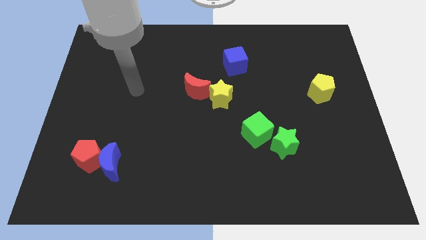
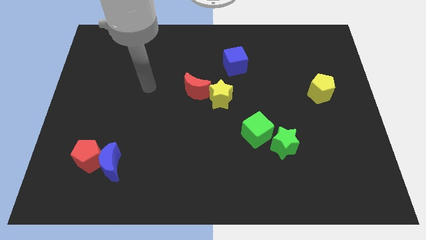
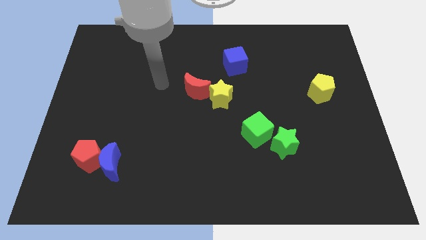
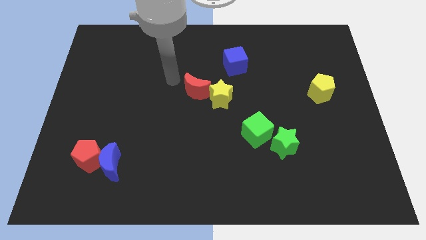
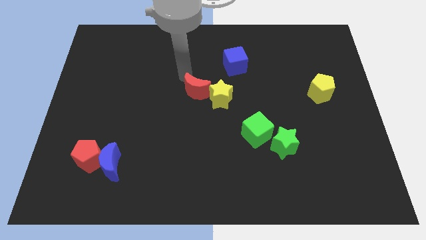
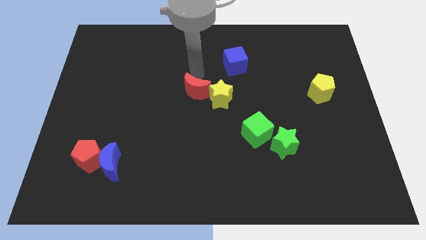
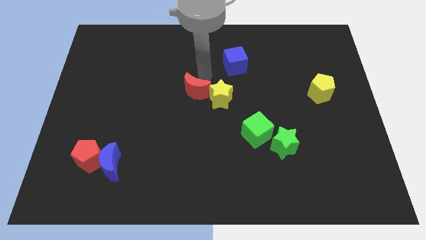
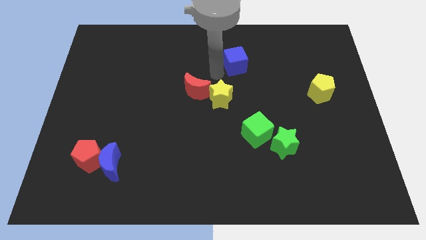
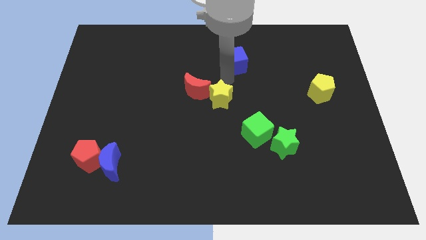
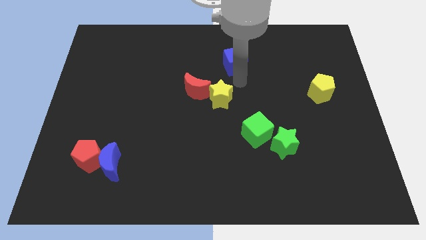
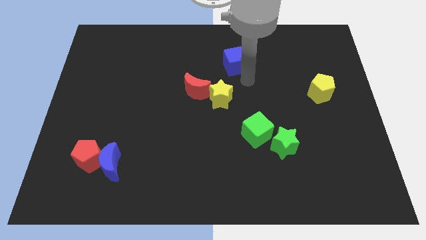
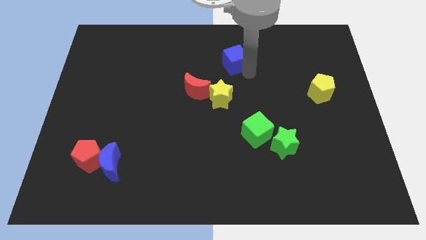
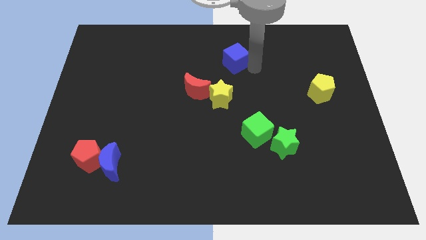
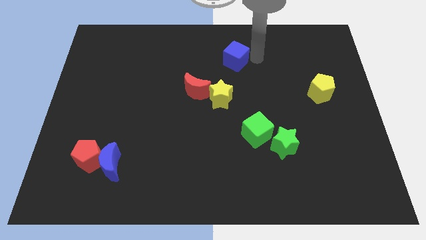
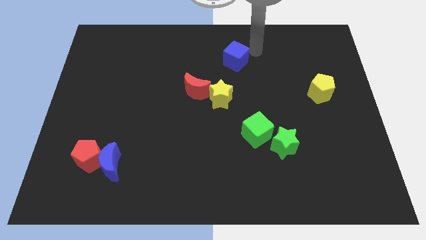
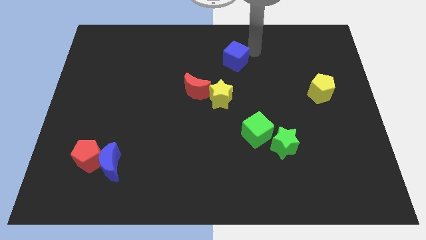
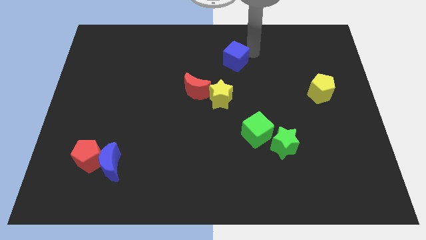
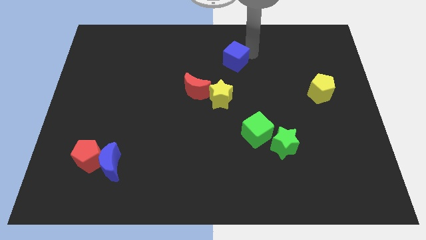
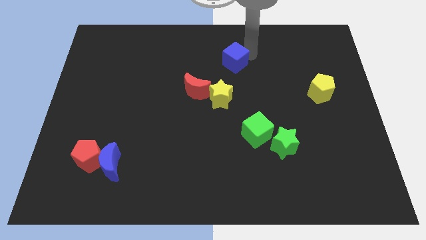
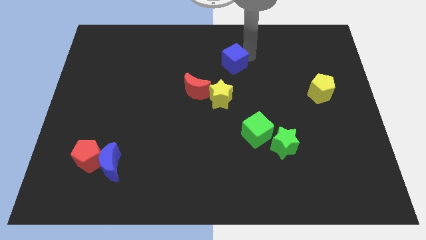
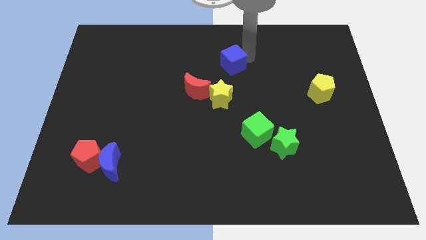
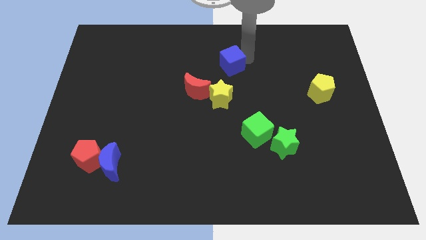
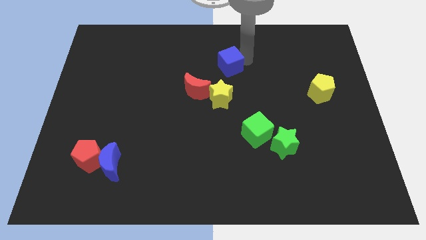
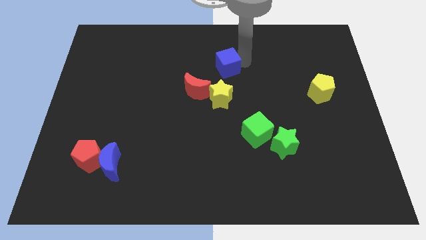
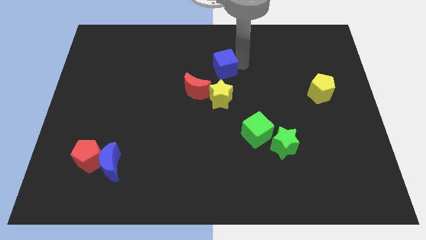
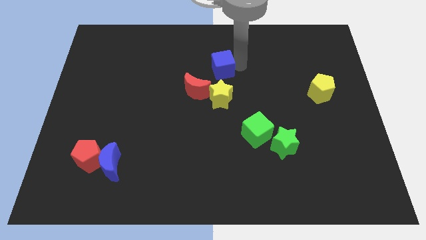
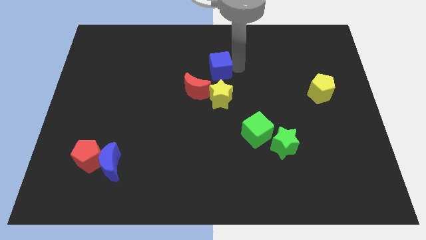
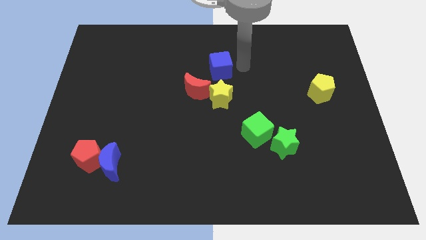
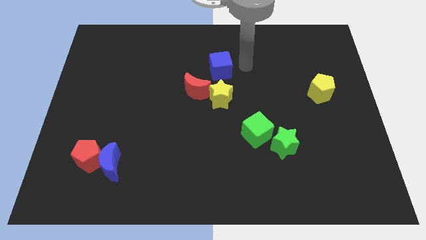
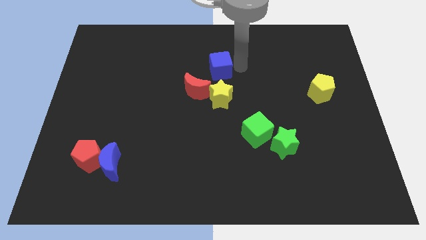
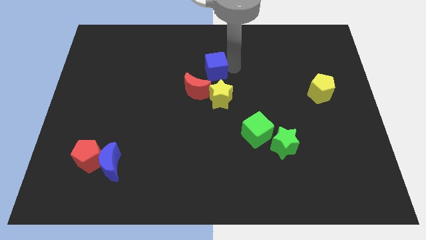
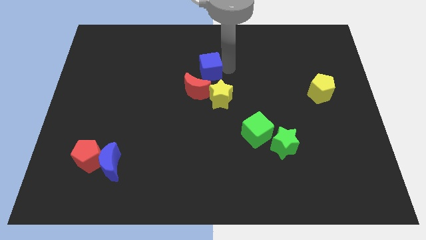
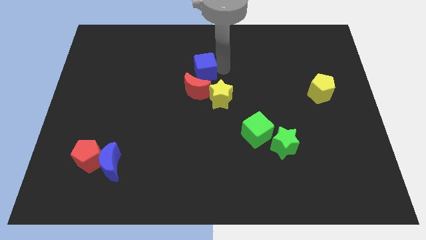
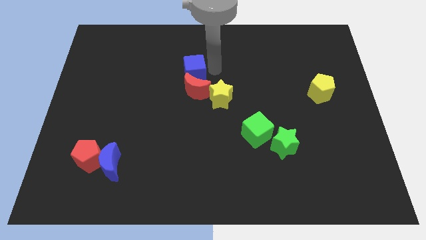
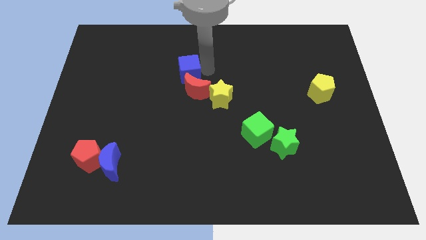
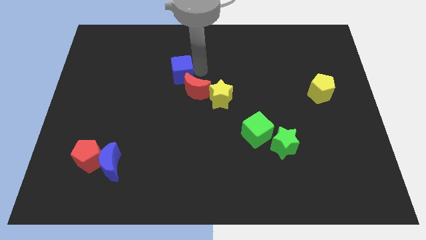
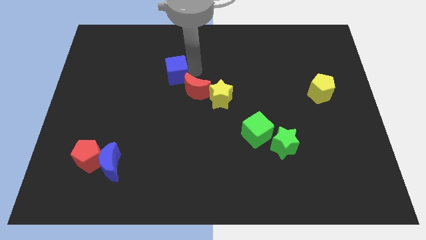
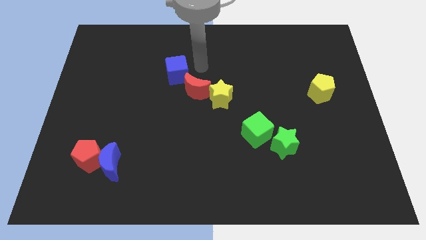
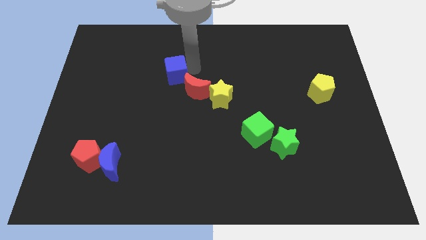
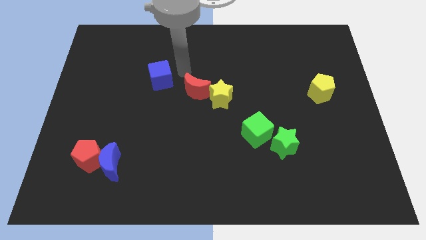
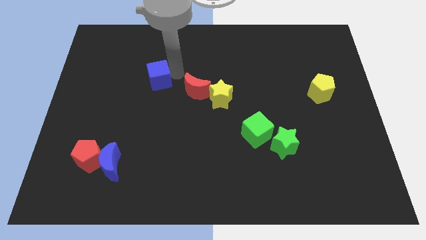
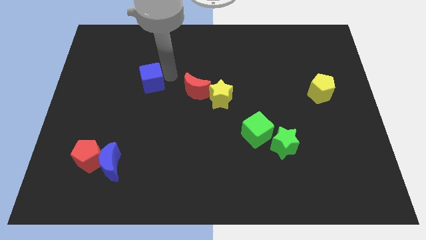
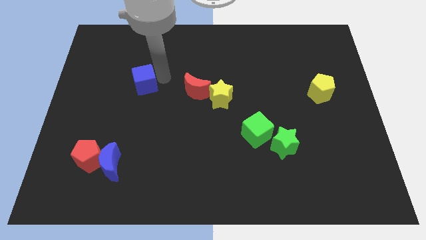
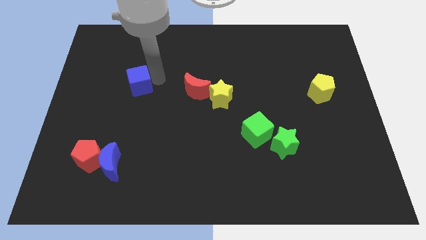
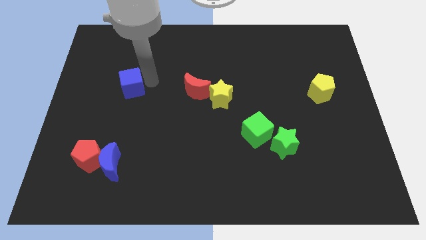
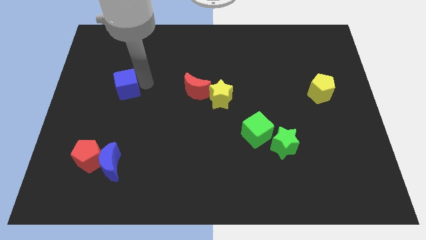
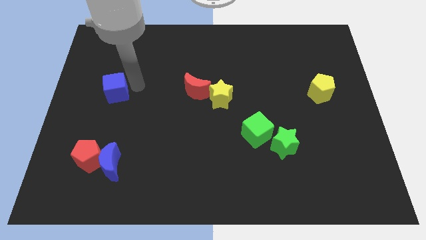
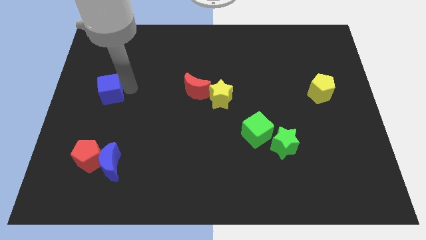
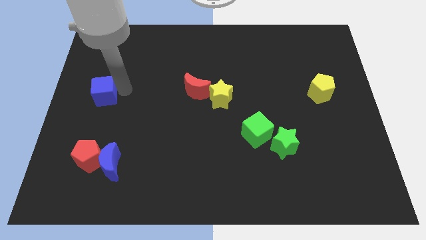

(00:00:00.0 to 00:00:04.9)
move the blue cube to the left side

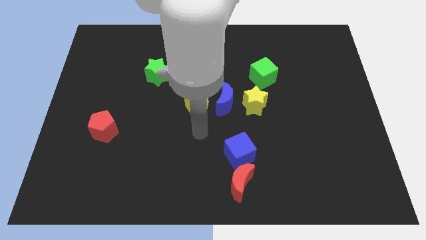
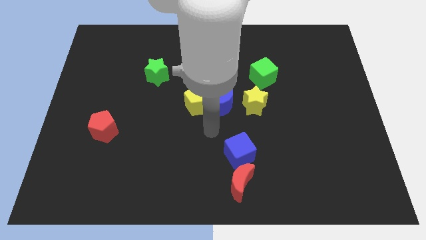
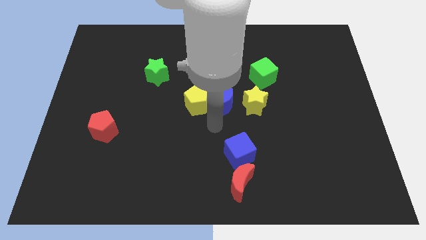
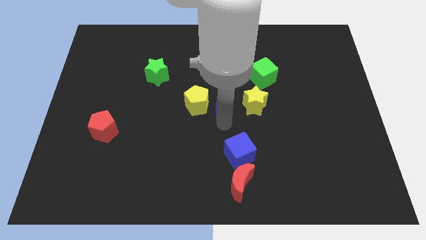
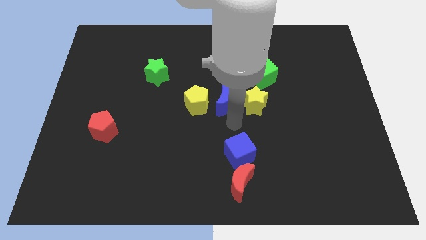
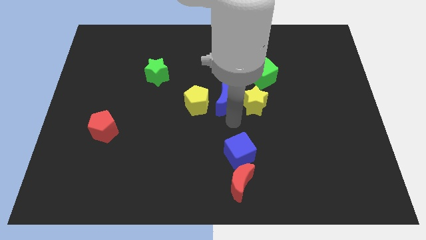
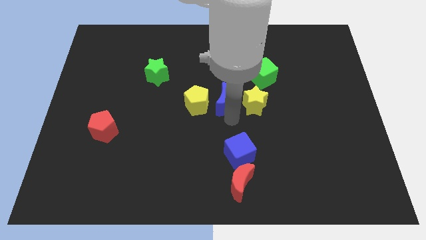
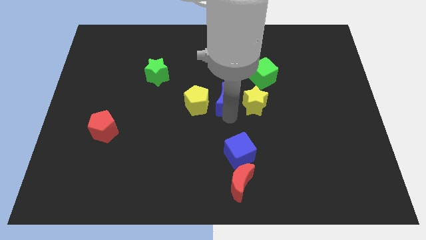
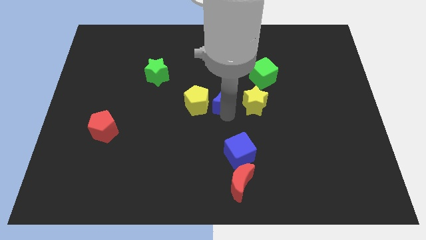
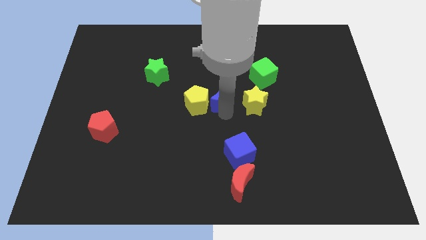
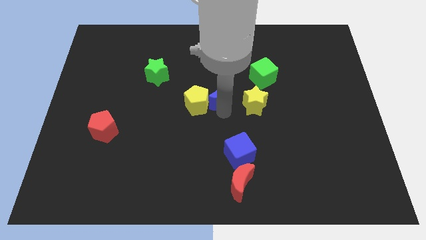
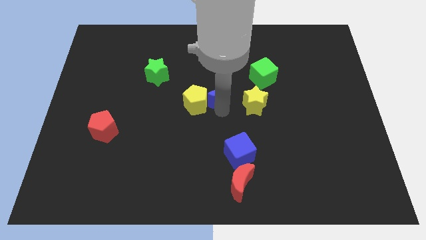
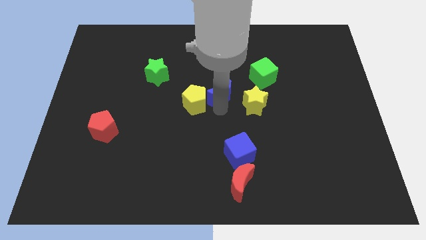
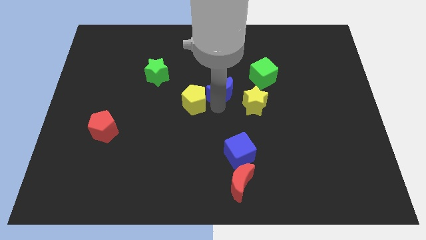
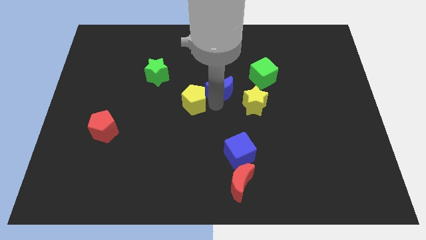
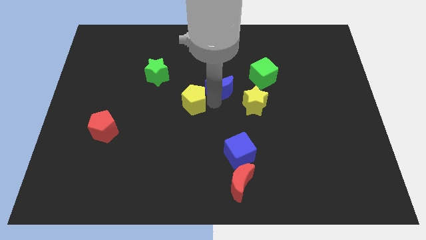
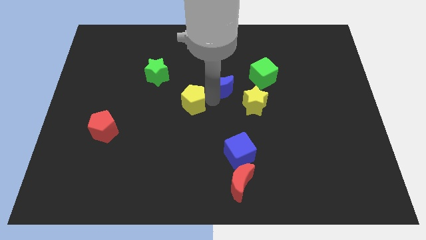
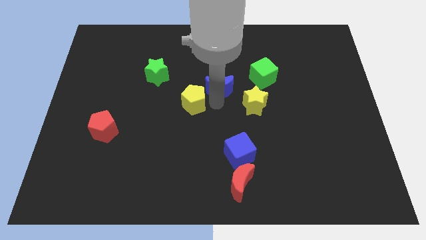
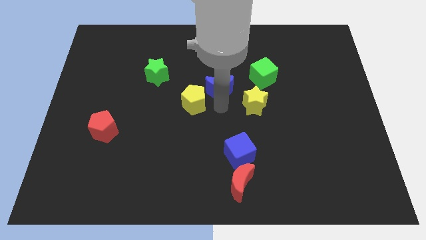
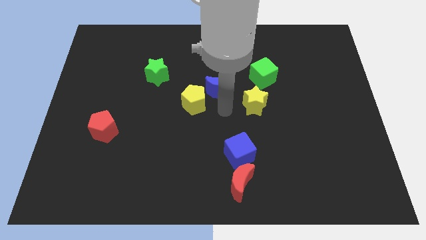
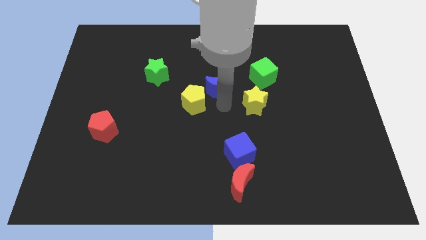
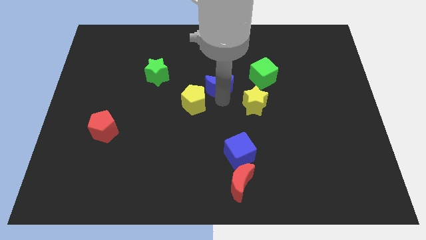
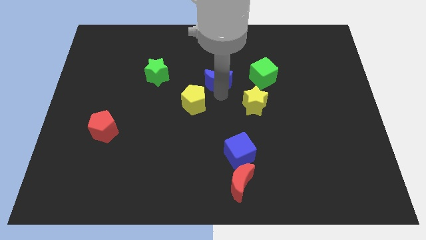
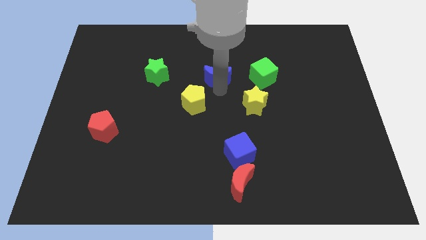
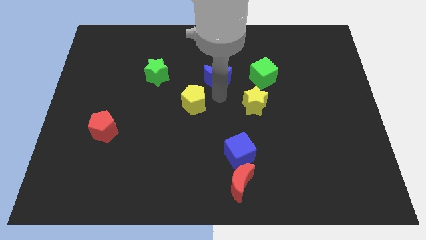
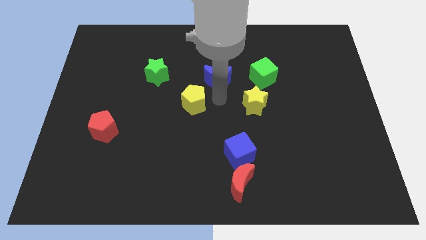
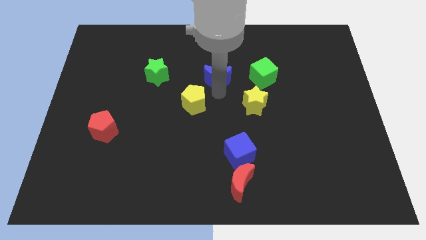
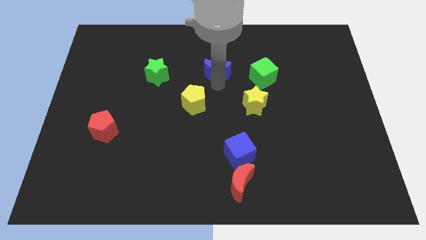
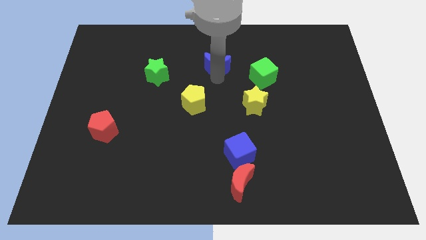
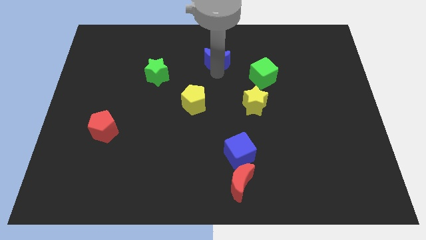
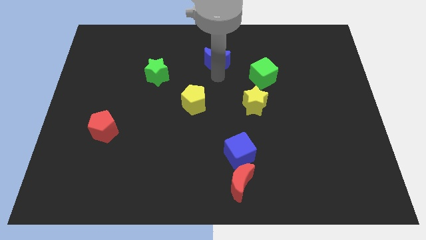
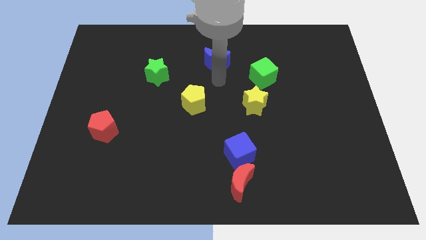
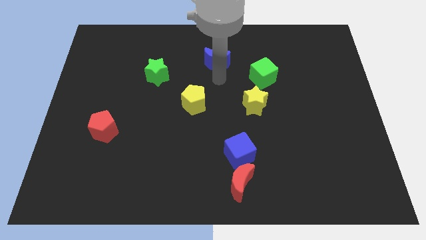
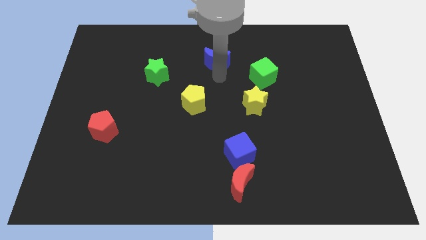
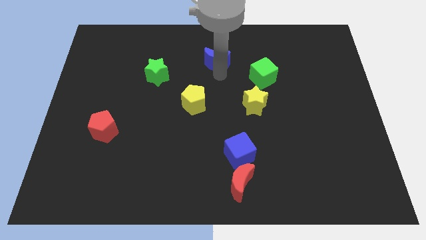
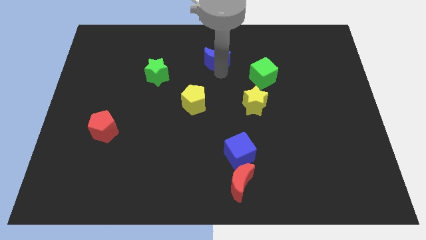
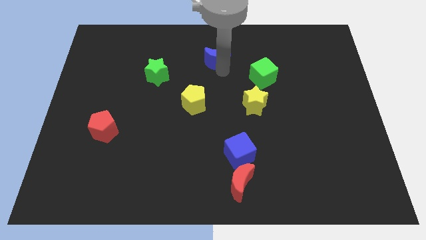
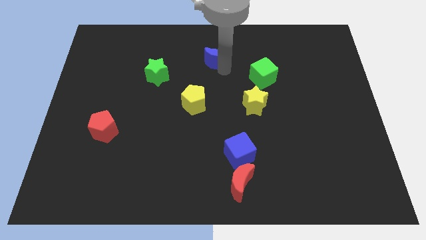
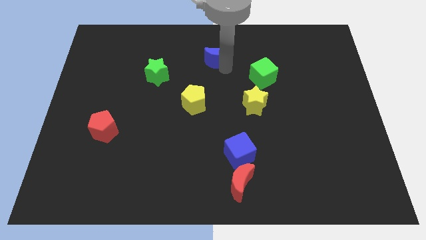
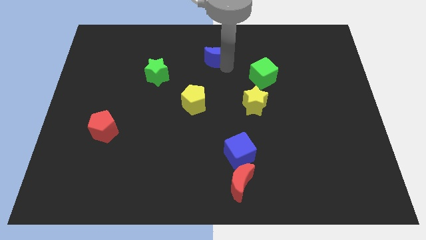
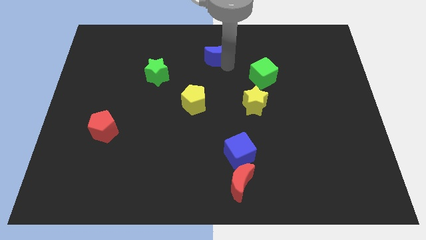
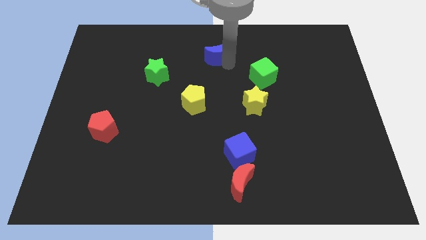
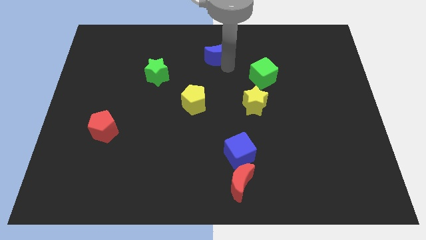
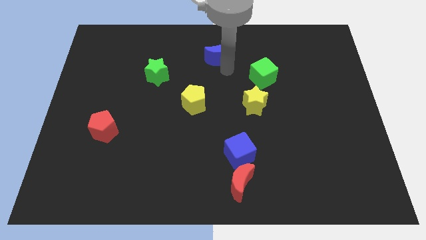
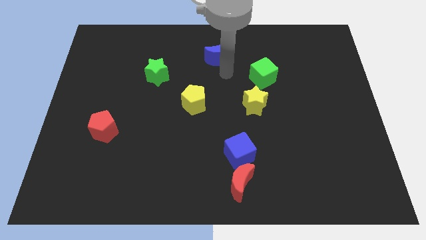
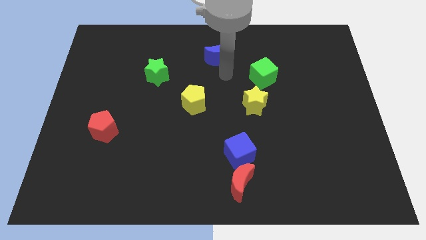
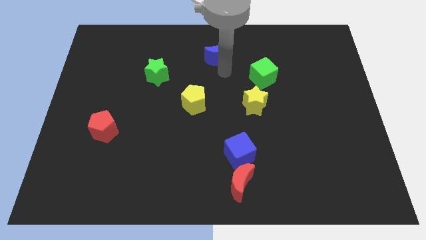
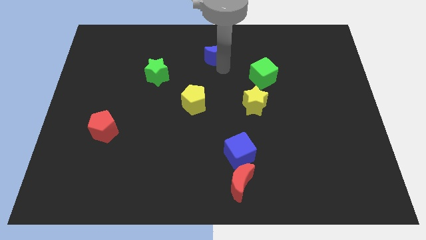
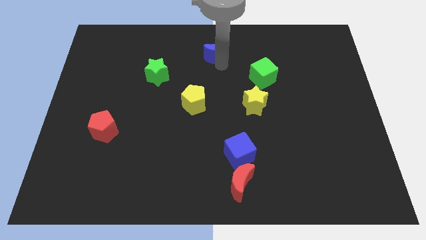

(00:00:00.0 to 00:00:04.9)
move the blue moon to the towards your base
